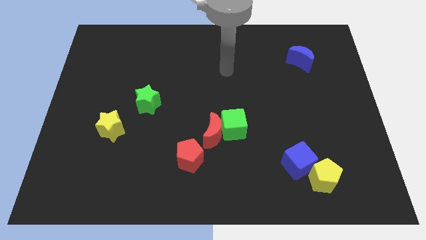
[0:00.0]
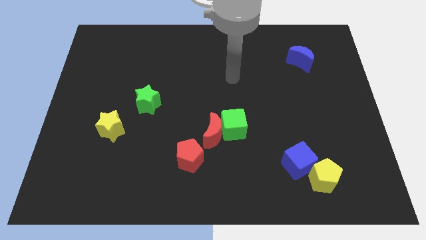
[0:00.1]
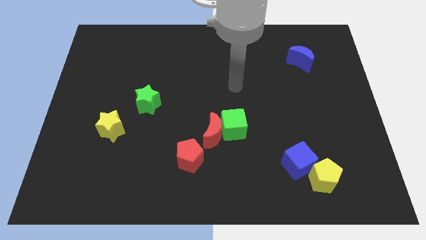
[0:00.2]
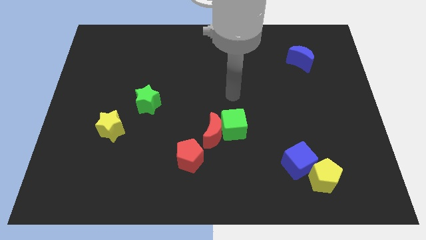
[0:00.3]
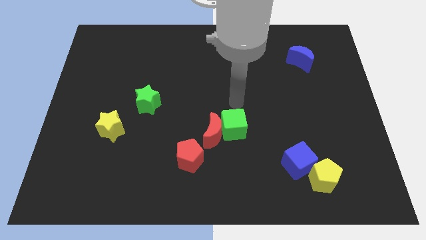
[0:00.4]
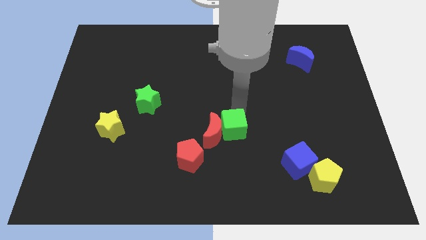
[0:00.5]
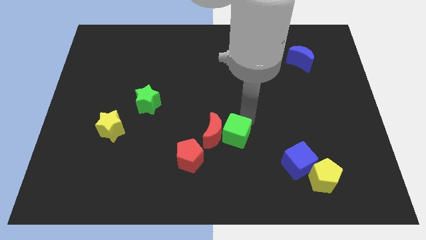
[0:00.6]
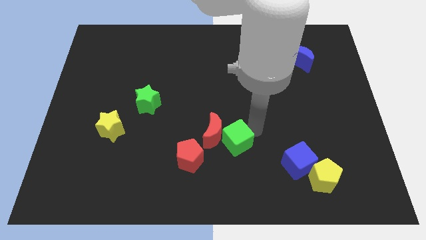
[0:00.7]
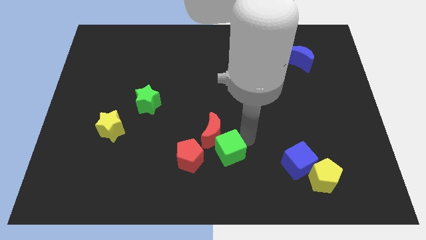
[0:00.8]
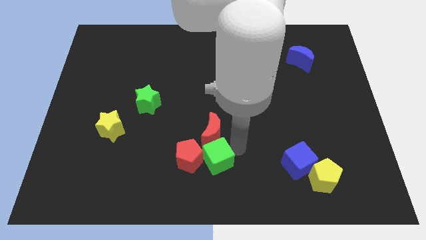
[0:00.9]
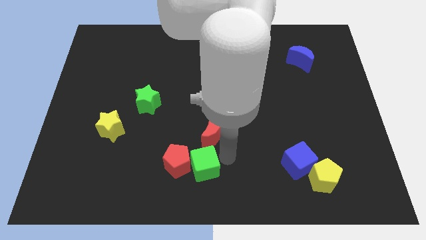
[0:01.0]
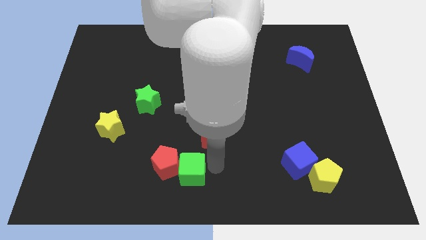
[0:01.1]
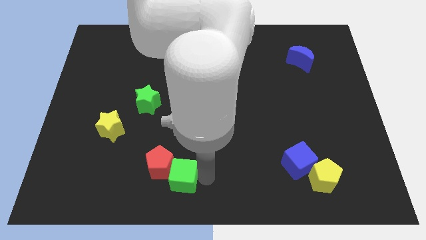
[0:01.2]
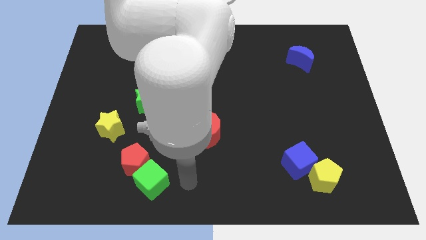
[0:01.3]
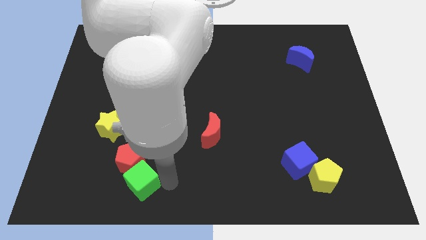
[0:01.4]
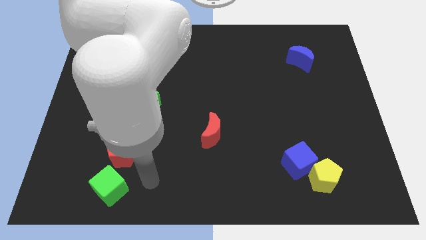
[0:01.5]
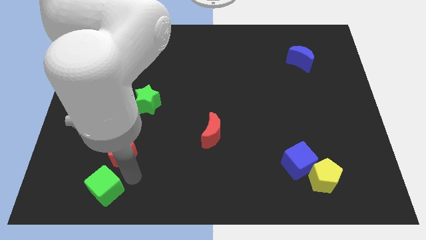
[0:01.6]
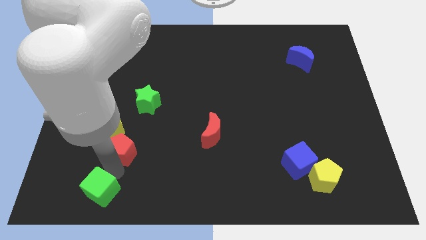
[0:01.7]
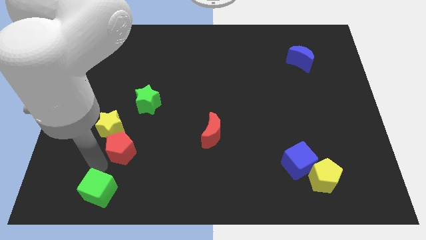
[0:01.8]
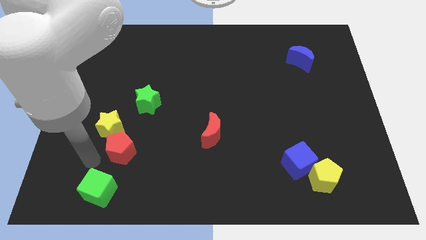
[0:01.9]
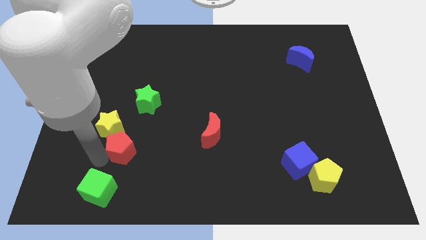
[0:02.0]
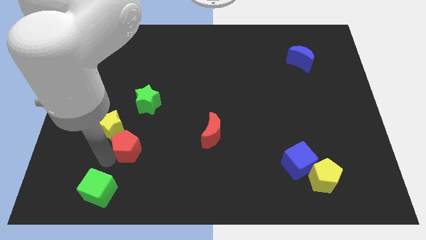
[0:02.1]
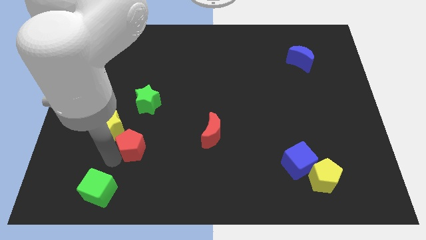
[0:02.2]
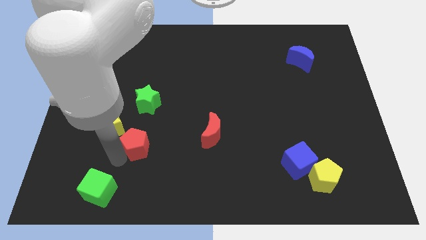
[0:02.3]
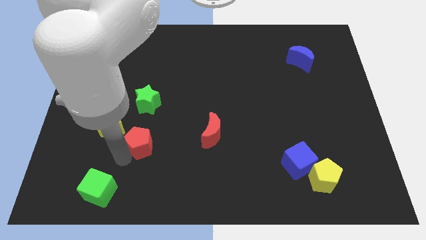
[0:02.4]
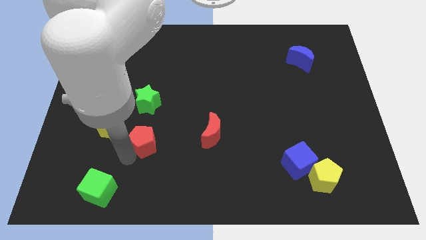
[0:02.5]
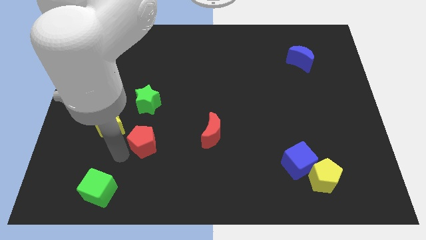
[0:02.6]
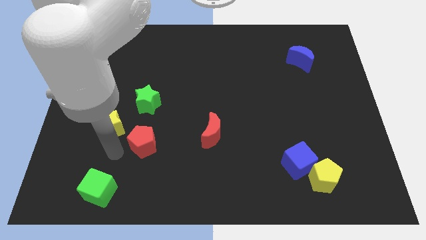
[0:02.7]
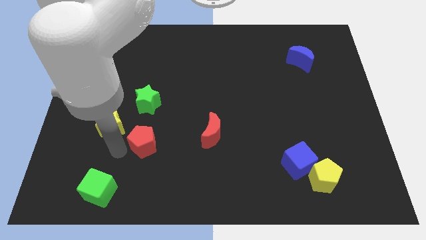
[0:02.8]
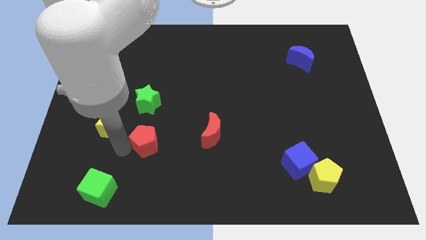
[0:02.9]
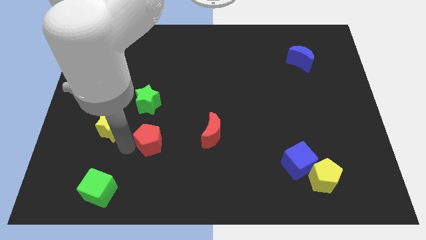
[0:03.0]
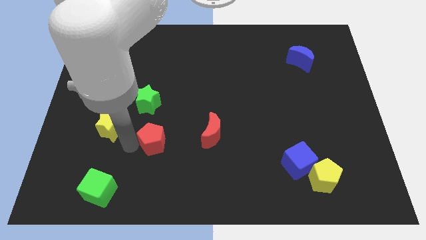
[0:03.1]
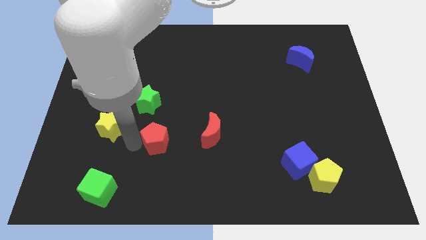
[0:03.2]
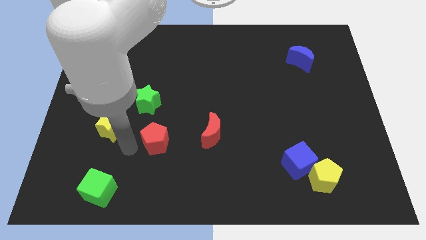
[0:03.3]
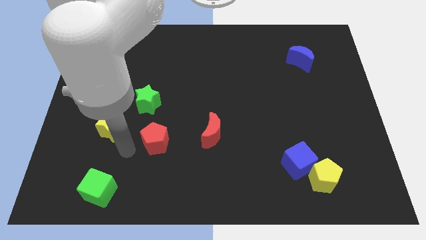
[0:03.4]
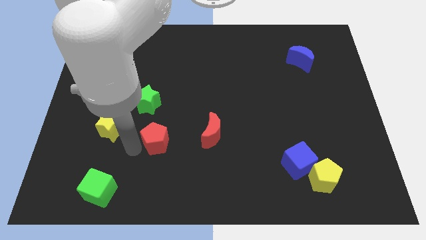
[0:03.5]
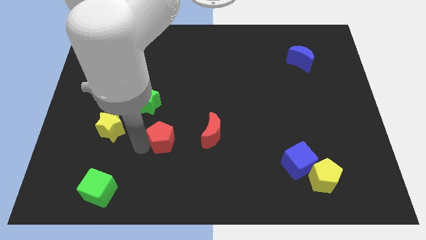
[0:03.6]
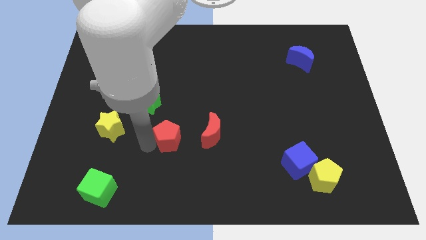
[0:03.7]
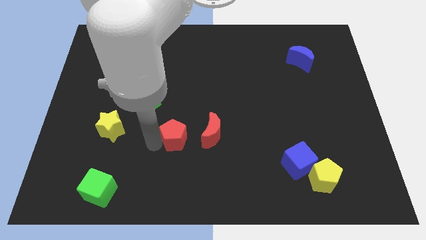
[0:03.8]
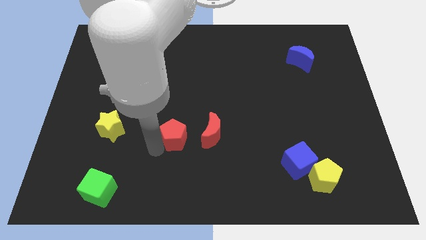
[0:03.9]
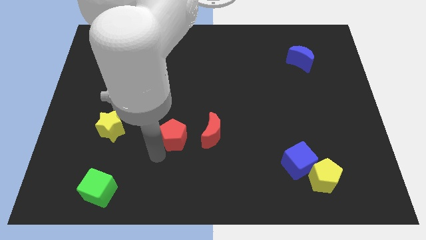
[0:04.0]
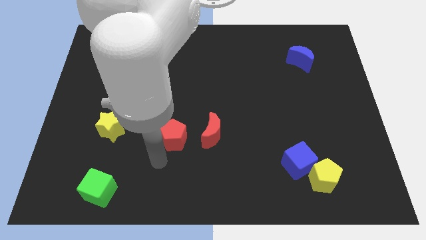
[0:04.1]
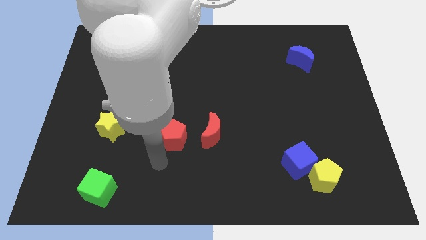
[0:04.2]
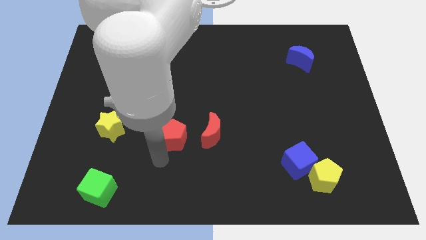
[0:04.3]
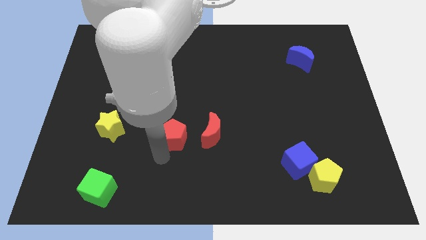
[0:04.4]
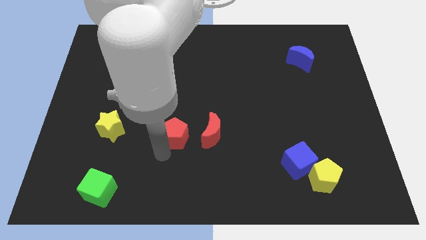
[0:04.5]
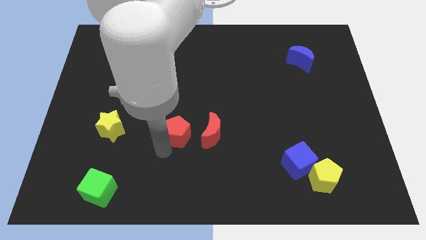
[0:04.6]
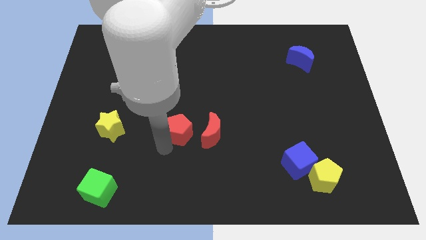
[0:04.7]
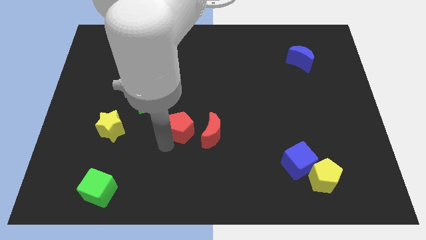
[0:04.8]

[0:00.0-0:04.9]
slightly slide the red pentagon upwards

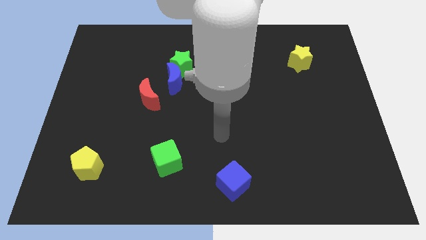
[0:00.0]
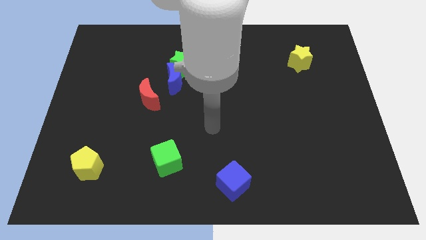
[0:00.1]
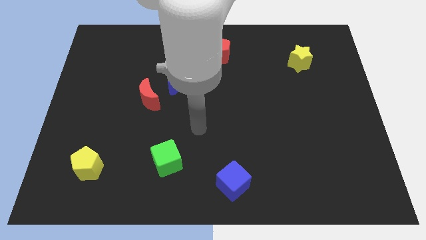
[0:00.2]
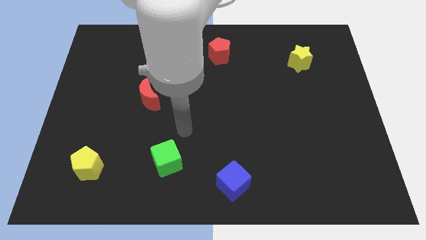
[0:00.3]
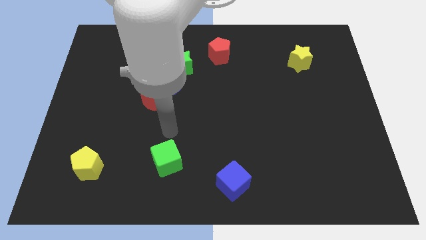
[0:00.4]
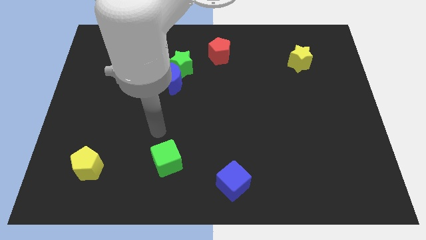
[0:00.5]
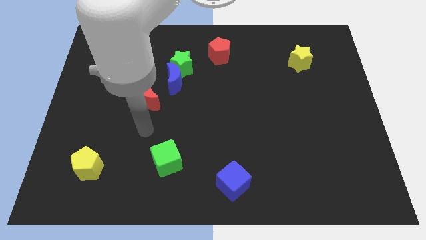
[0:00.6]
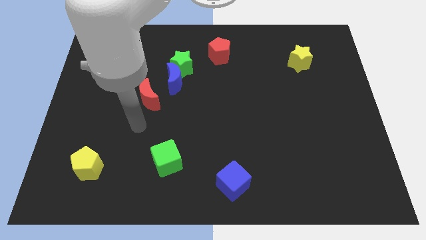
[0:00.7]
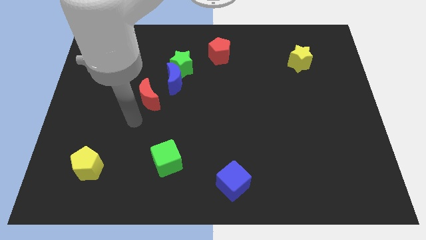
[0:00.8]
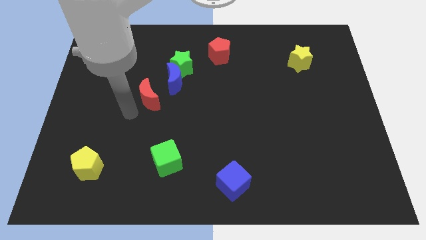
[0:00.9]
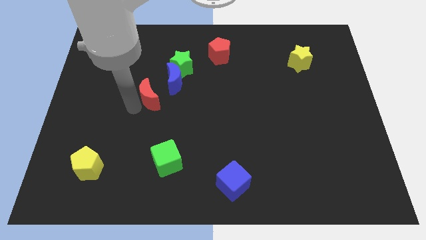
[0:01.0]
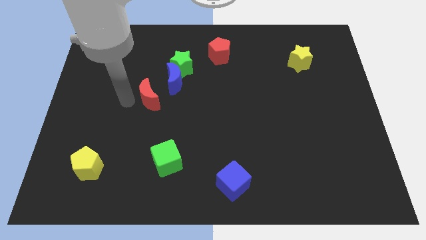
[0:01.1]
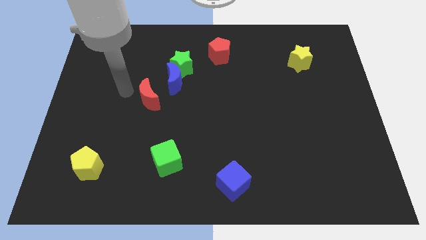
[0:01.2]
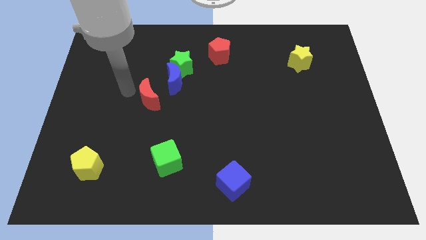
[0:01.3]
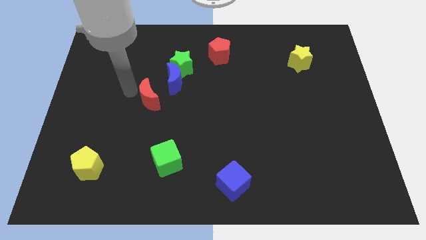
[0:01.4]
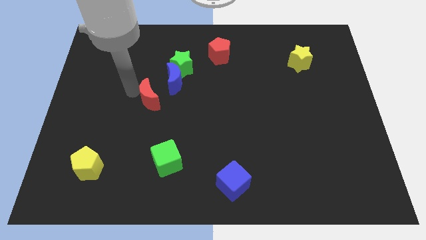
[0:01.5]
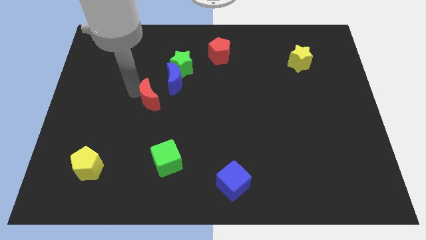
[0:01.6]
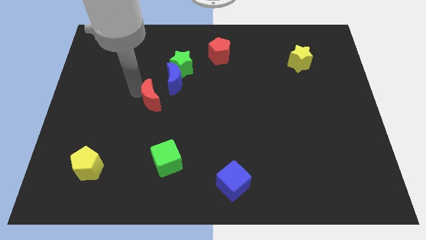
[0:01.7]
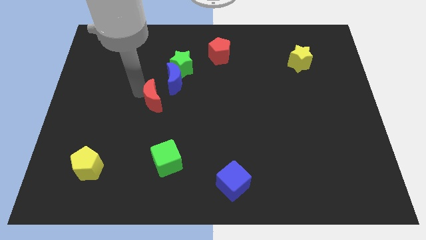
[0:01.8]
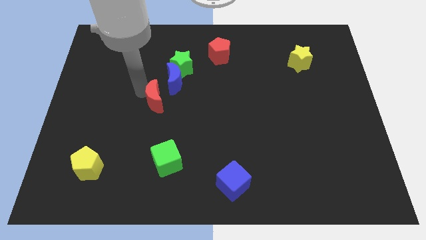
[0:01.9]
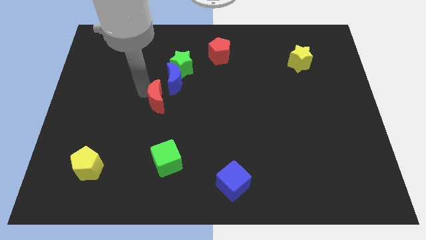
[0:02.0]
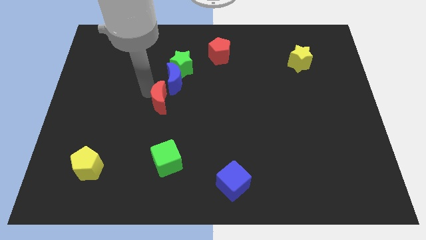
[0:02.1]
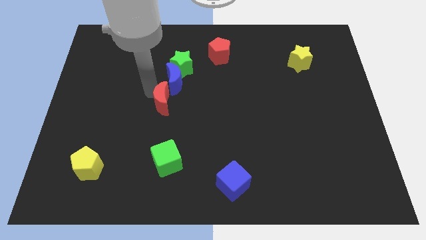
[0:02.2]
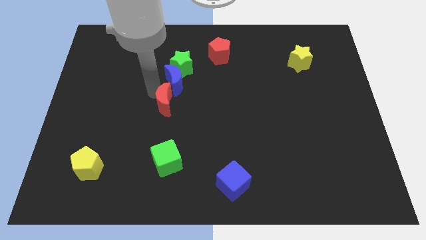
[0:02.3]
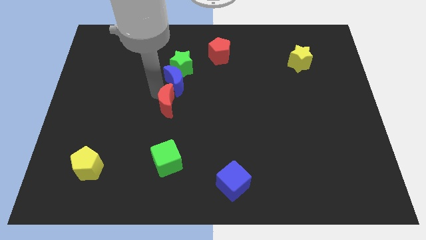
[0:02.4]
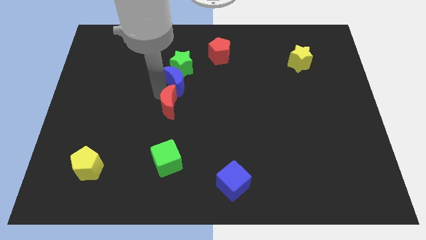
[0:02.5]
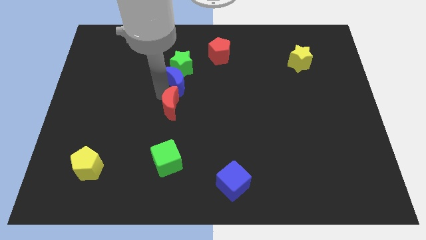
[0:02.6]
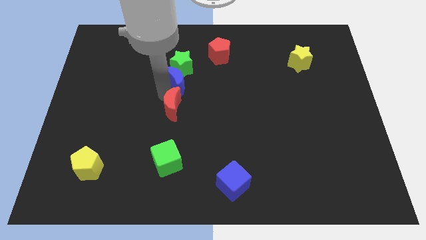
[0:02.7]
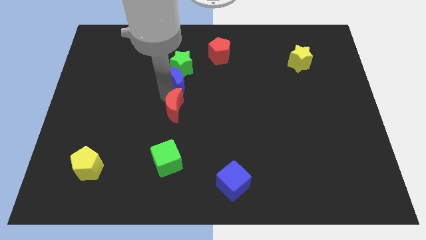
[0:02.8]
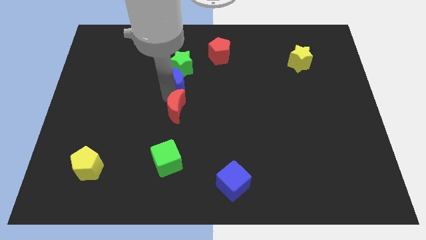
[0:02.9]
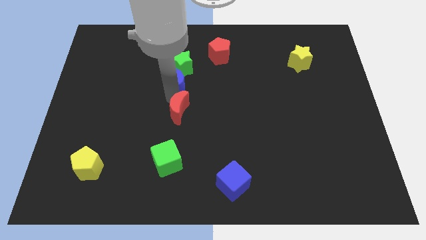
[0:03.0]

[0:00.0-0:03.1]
slightly push the red moon down and to the right diagonally

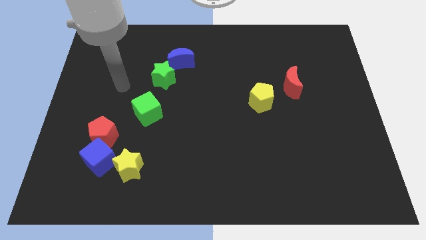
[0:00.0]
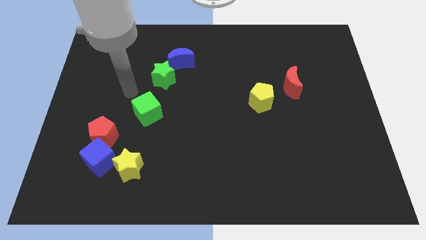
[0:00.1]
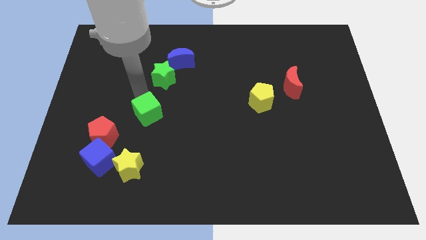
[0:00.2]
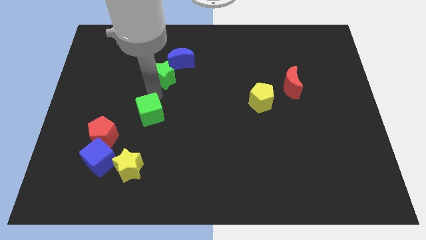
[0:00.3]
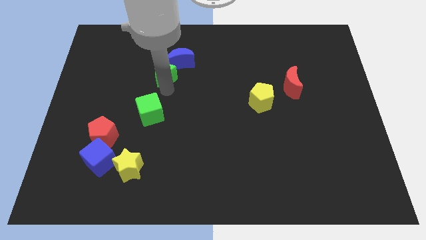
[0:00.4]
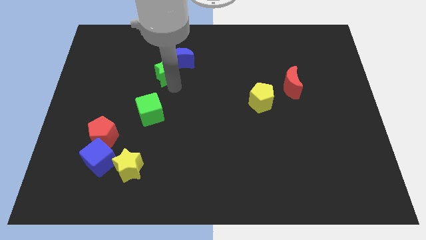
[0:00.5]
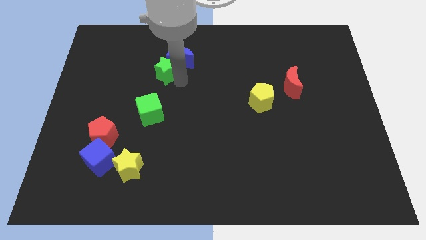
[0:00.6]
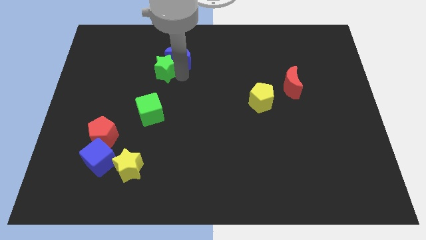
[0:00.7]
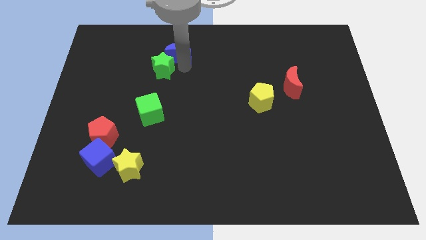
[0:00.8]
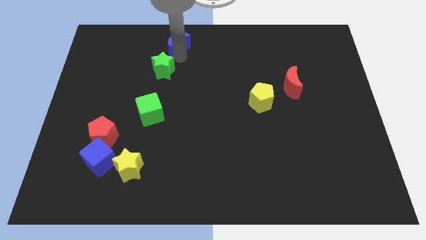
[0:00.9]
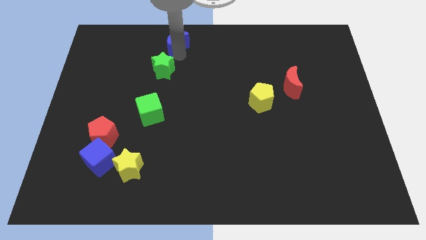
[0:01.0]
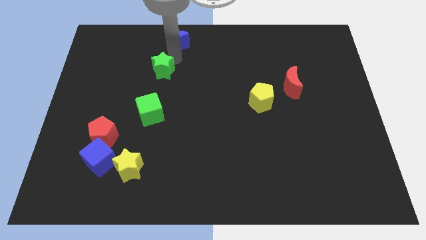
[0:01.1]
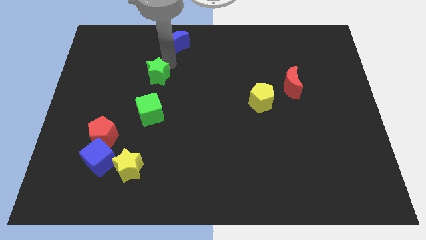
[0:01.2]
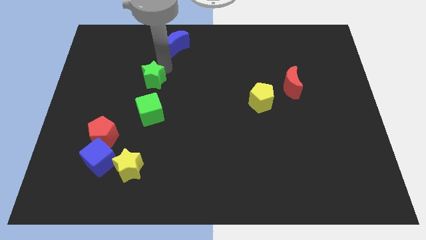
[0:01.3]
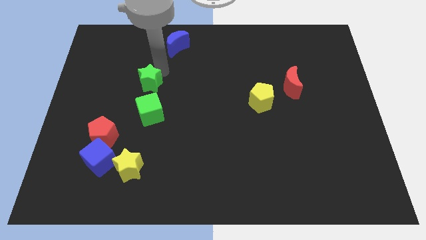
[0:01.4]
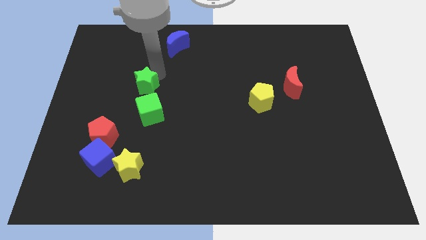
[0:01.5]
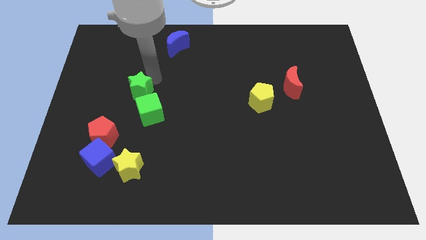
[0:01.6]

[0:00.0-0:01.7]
push the green star somewhat diagonally down and to the left
